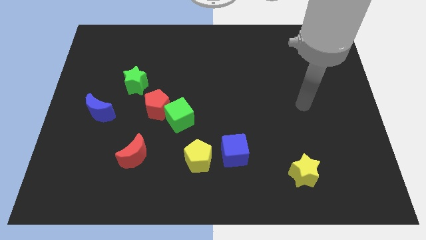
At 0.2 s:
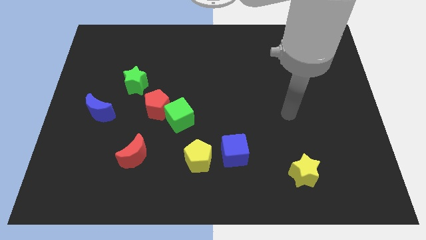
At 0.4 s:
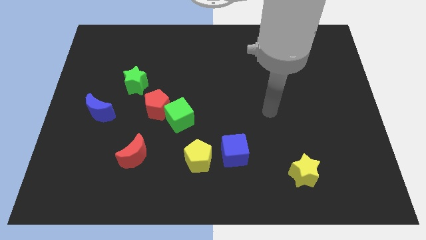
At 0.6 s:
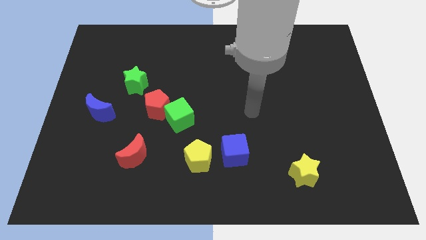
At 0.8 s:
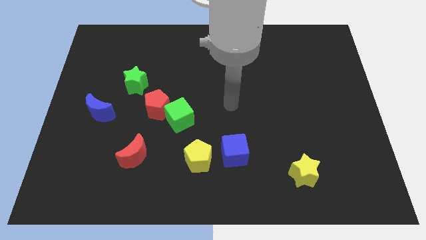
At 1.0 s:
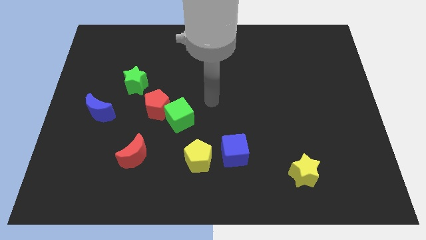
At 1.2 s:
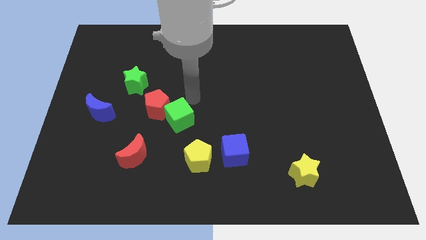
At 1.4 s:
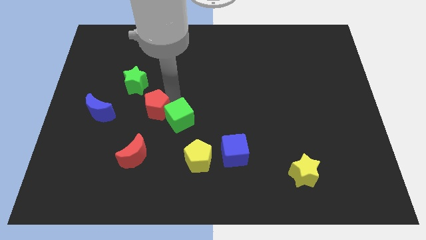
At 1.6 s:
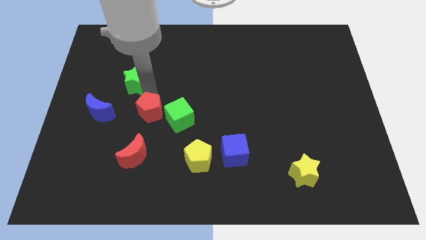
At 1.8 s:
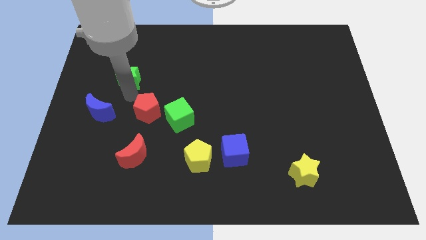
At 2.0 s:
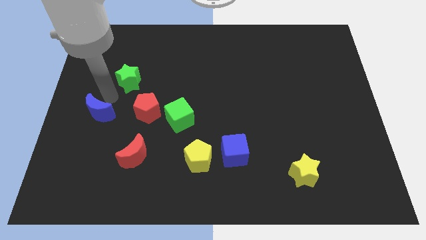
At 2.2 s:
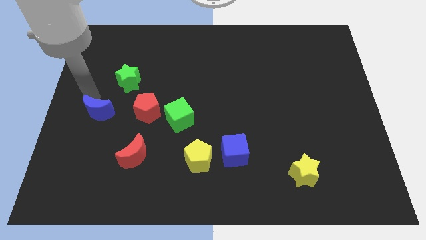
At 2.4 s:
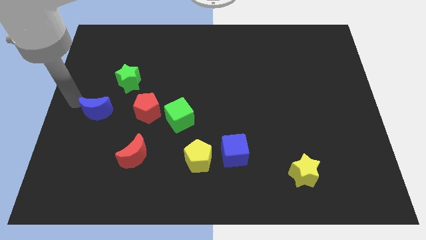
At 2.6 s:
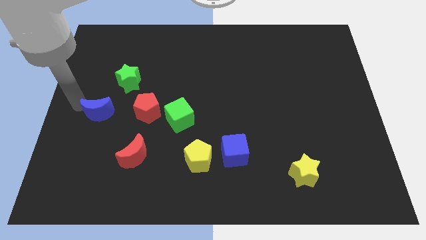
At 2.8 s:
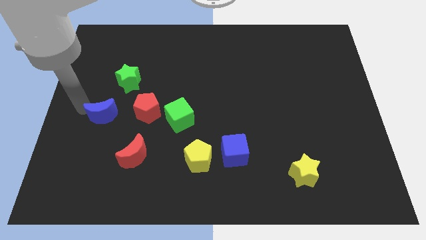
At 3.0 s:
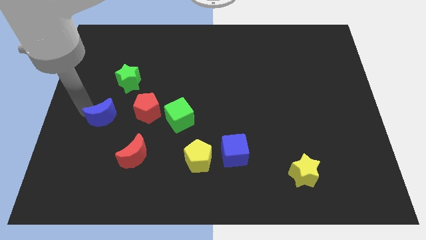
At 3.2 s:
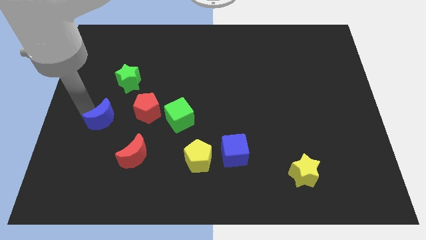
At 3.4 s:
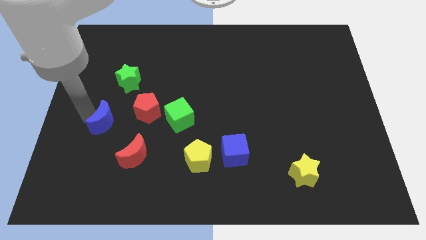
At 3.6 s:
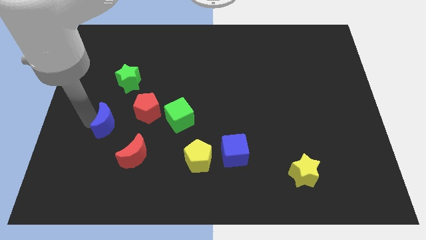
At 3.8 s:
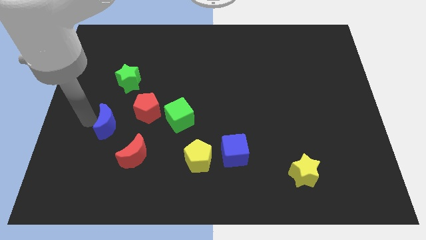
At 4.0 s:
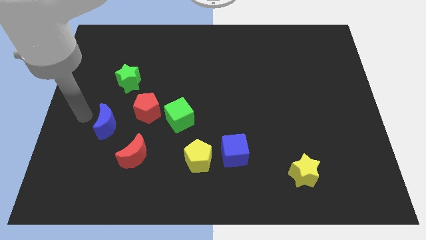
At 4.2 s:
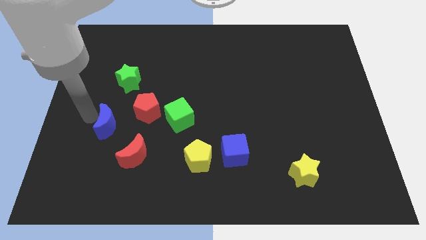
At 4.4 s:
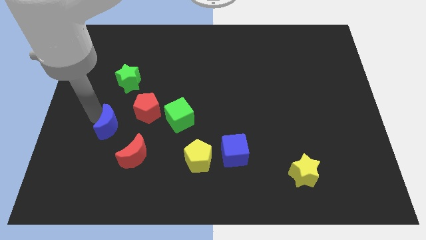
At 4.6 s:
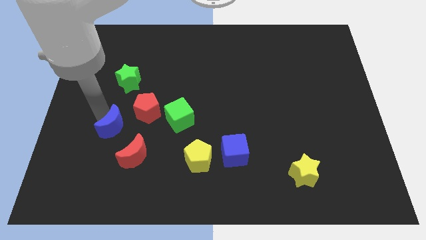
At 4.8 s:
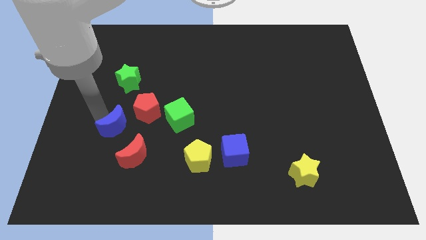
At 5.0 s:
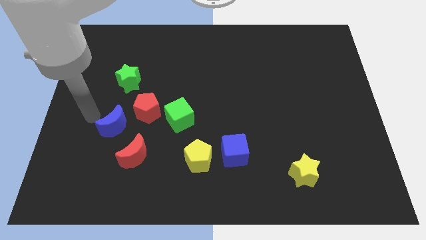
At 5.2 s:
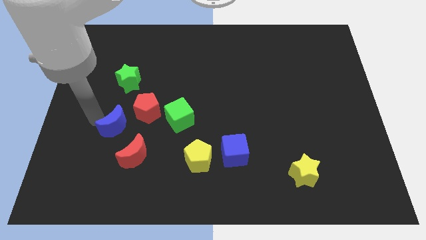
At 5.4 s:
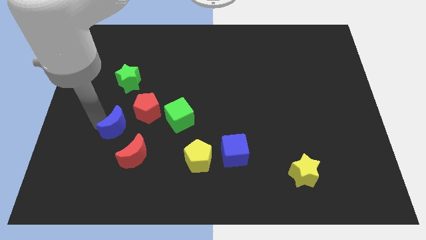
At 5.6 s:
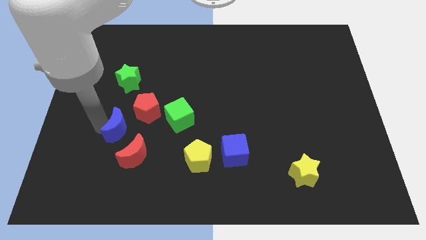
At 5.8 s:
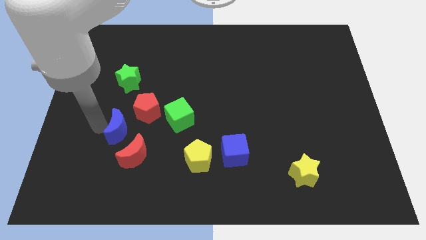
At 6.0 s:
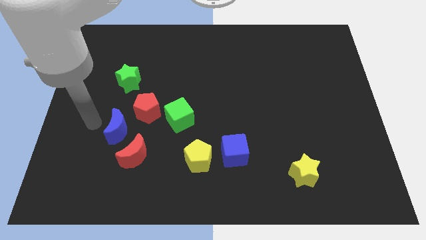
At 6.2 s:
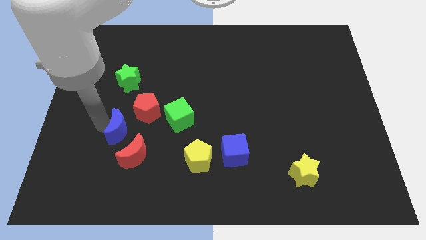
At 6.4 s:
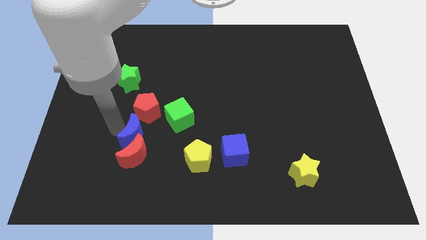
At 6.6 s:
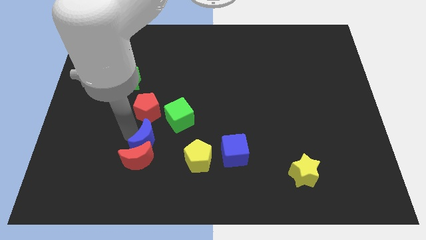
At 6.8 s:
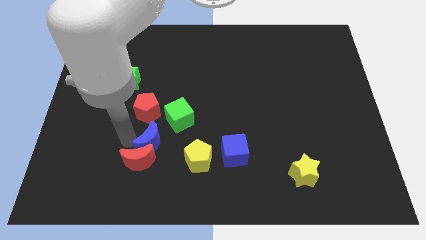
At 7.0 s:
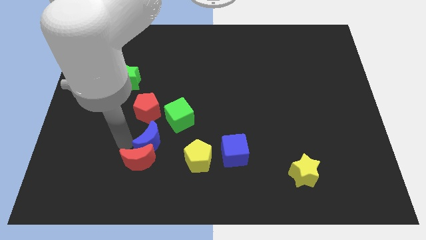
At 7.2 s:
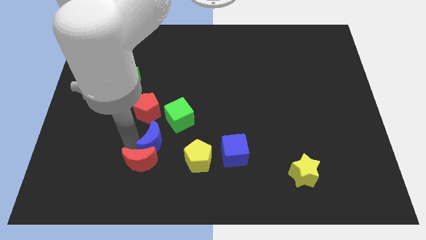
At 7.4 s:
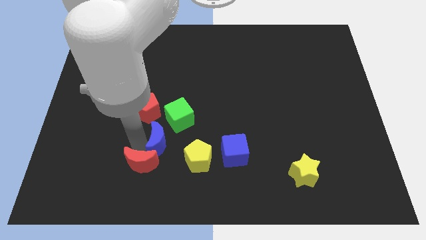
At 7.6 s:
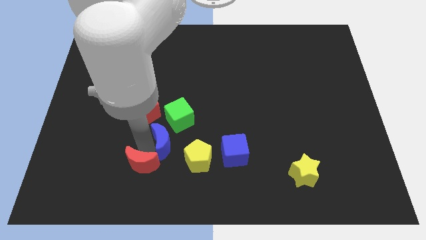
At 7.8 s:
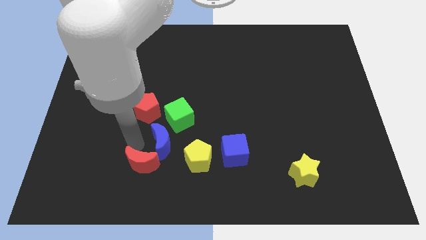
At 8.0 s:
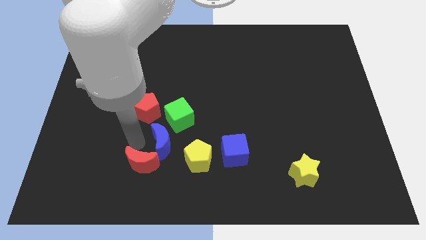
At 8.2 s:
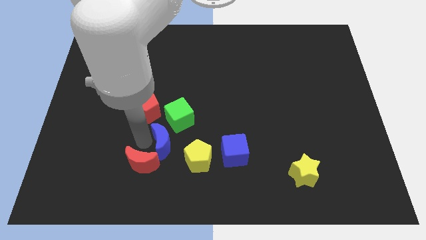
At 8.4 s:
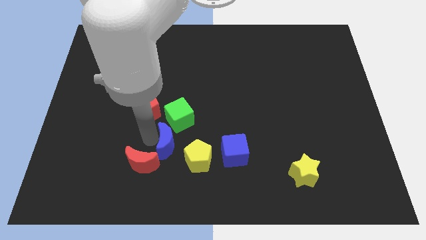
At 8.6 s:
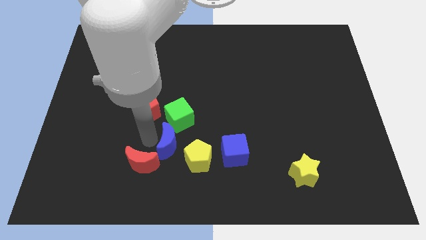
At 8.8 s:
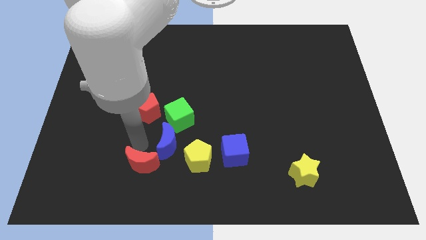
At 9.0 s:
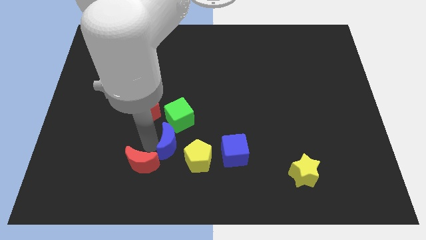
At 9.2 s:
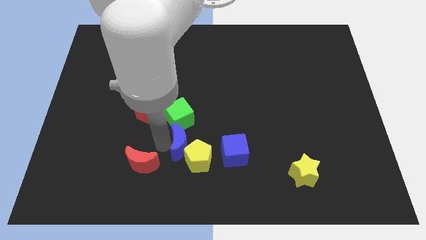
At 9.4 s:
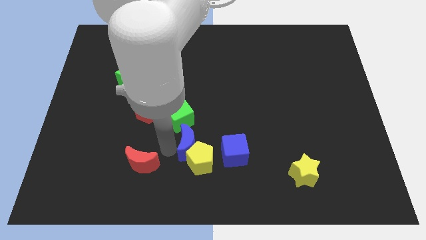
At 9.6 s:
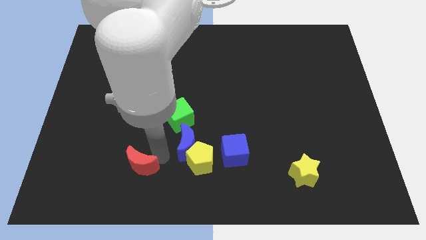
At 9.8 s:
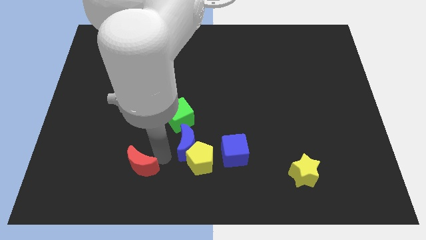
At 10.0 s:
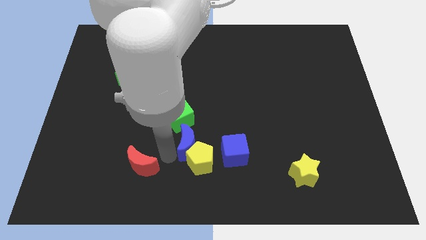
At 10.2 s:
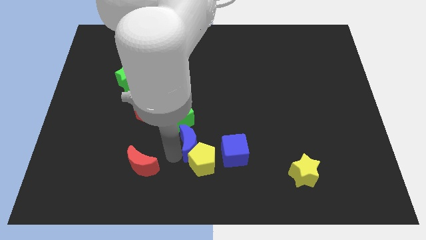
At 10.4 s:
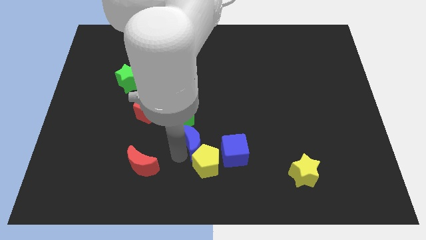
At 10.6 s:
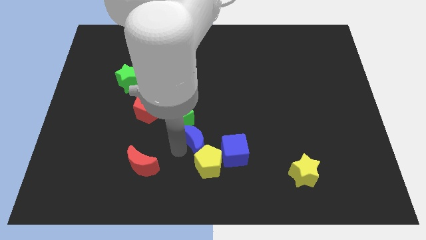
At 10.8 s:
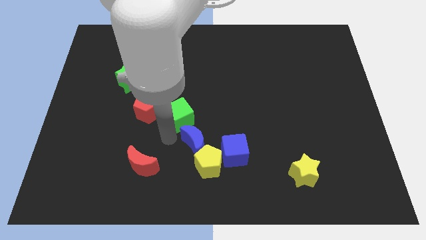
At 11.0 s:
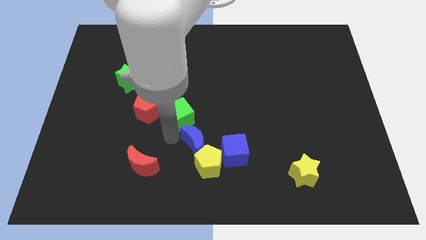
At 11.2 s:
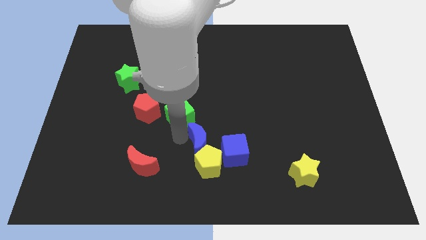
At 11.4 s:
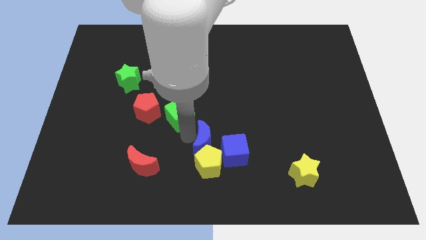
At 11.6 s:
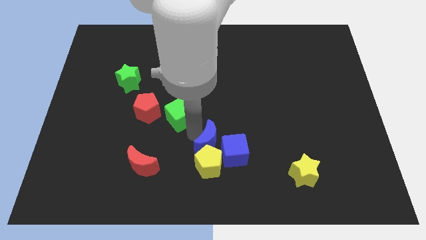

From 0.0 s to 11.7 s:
put the blue moon to the blue cube
